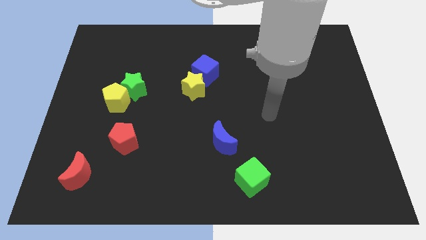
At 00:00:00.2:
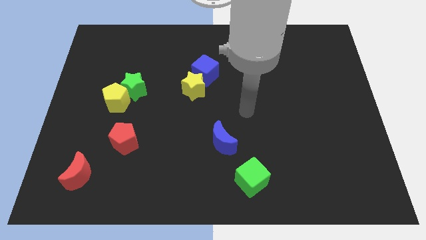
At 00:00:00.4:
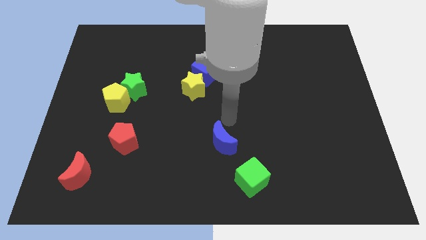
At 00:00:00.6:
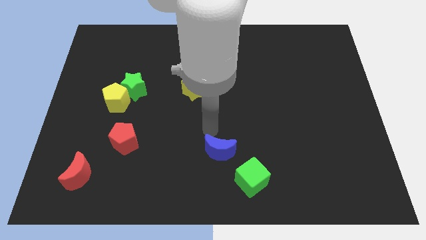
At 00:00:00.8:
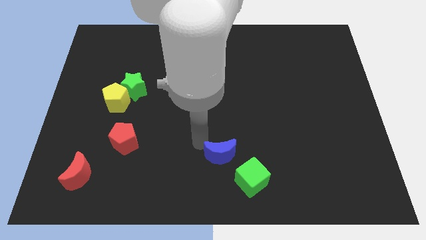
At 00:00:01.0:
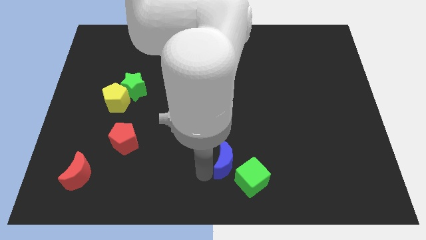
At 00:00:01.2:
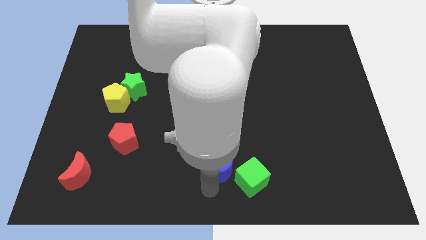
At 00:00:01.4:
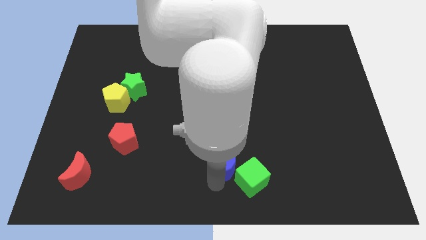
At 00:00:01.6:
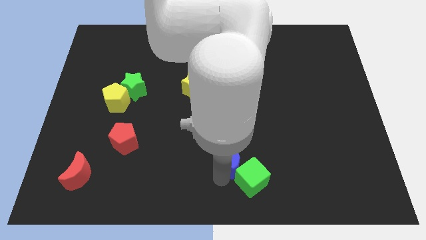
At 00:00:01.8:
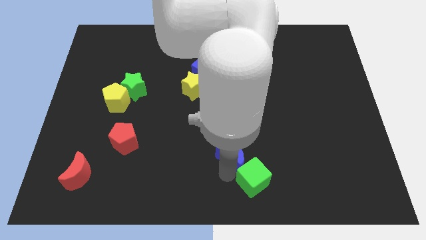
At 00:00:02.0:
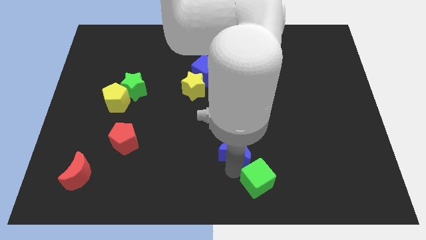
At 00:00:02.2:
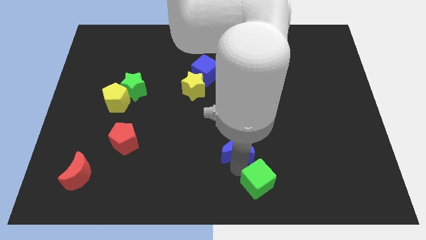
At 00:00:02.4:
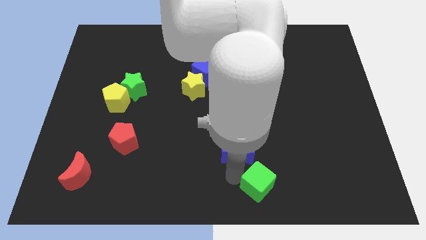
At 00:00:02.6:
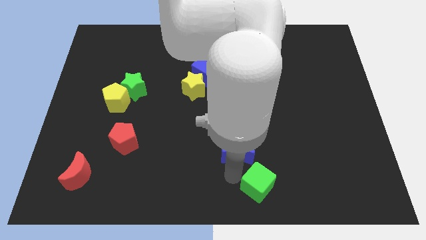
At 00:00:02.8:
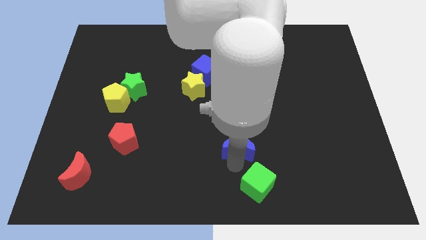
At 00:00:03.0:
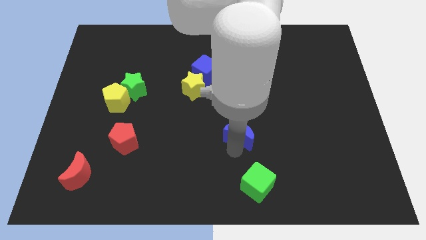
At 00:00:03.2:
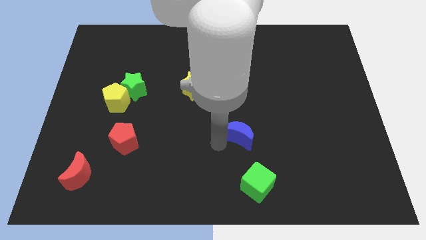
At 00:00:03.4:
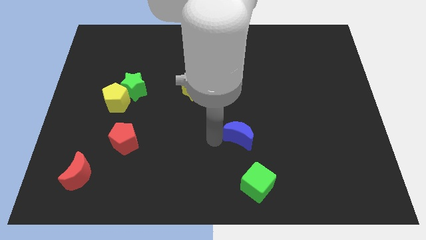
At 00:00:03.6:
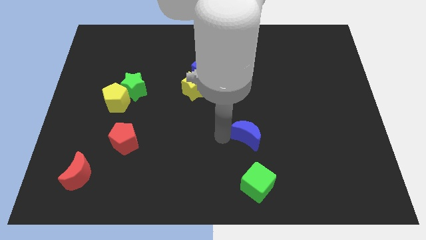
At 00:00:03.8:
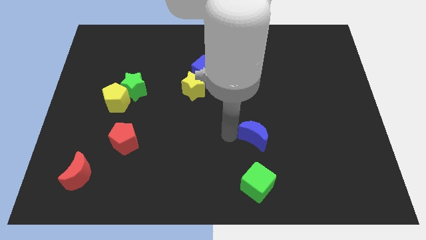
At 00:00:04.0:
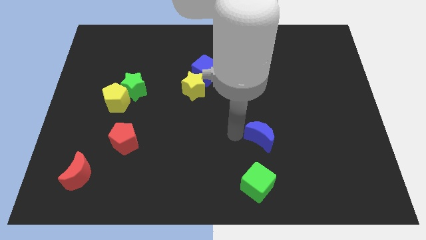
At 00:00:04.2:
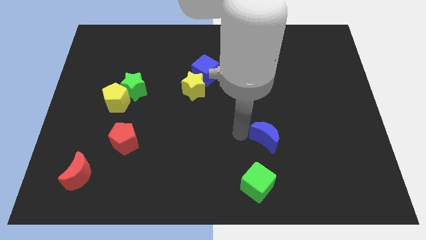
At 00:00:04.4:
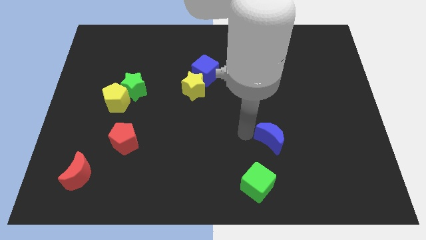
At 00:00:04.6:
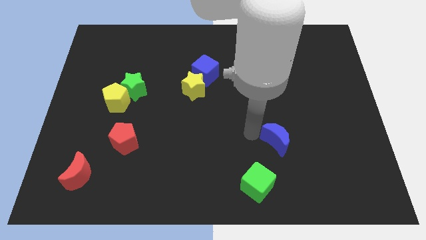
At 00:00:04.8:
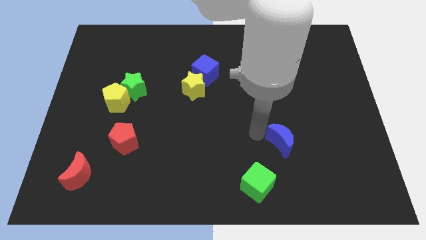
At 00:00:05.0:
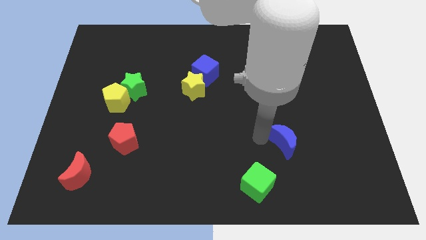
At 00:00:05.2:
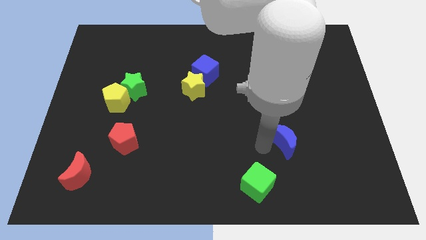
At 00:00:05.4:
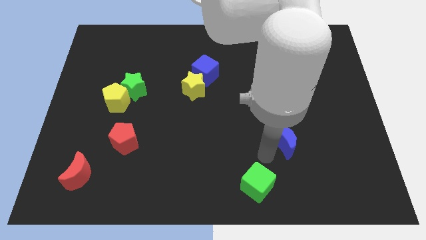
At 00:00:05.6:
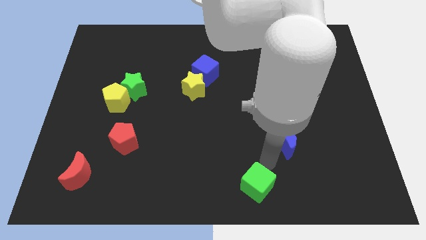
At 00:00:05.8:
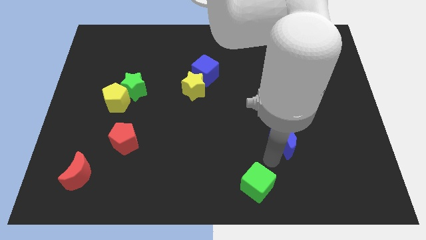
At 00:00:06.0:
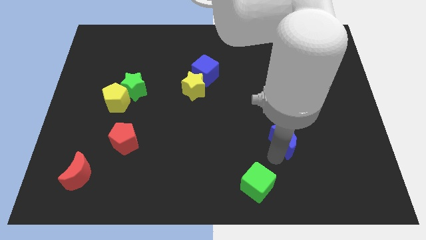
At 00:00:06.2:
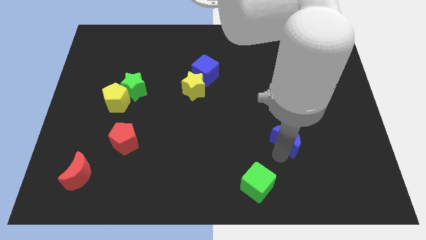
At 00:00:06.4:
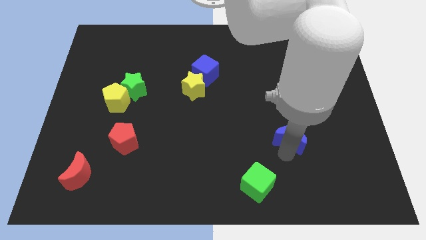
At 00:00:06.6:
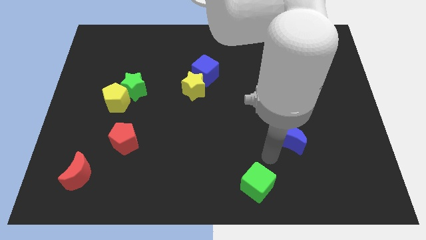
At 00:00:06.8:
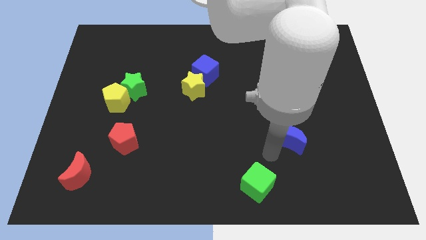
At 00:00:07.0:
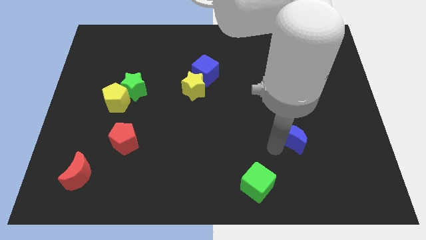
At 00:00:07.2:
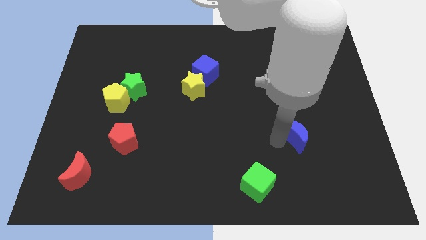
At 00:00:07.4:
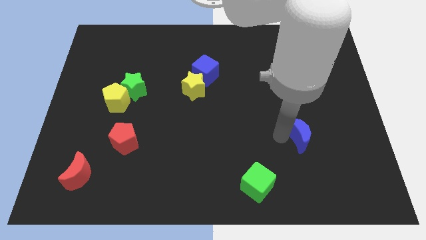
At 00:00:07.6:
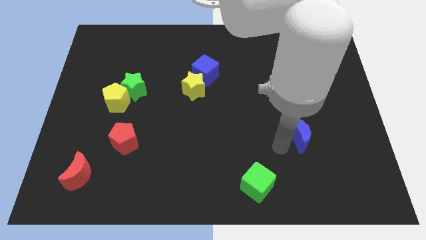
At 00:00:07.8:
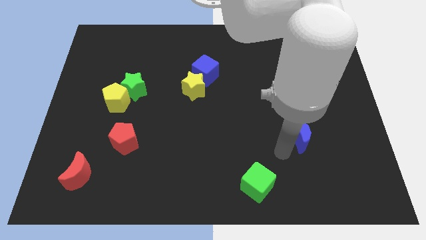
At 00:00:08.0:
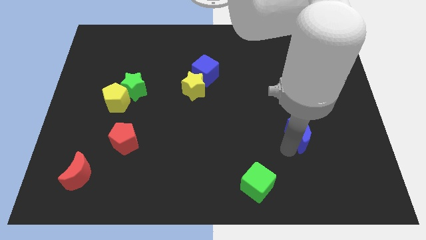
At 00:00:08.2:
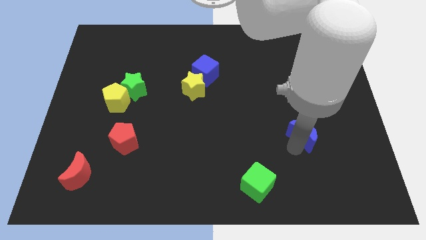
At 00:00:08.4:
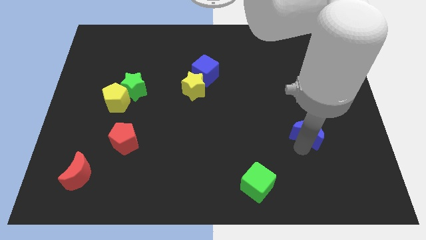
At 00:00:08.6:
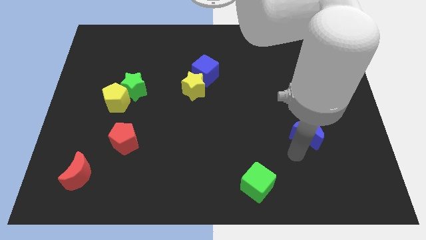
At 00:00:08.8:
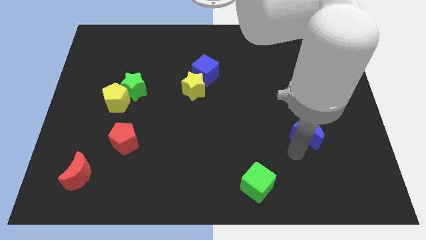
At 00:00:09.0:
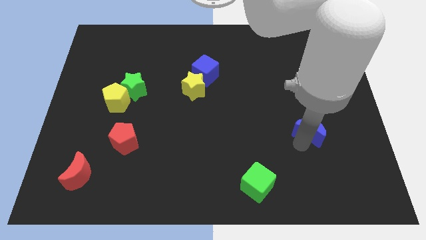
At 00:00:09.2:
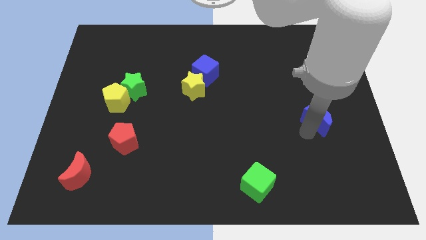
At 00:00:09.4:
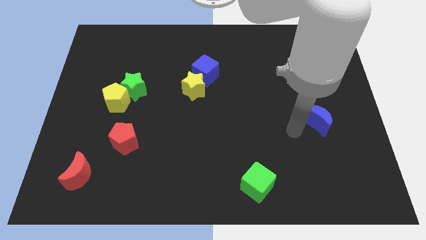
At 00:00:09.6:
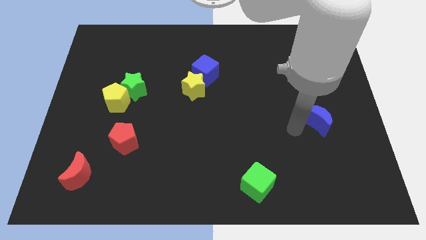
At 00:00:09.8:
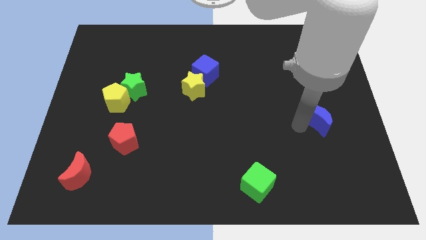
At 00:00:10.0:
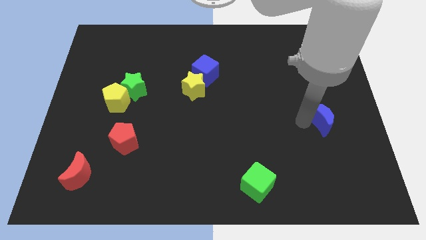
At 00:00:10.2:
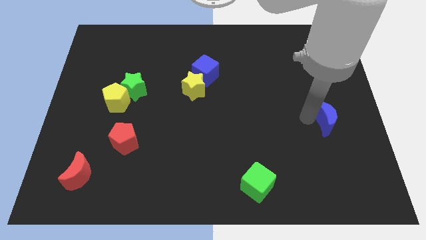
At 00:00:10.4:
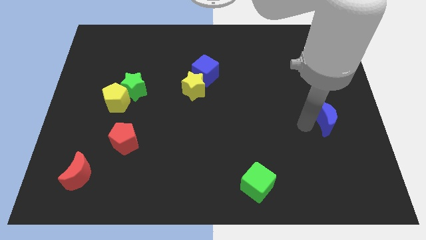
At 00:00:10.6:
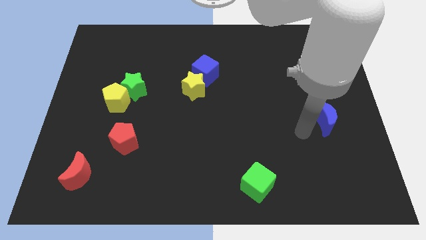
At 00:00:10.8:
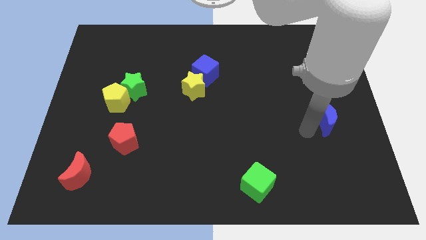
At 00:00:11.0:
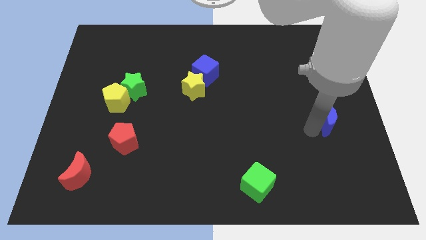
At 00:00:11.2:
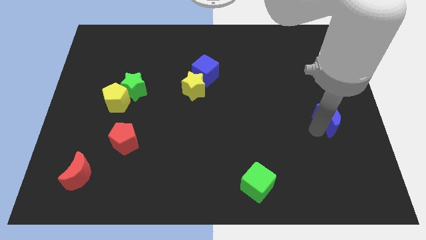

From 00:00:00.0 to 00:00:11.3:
put the blue moon to the right side

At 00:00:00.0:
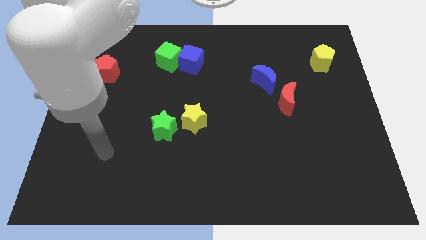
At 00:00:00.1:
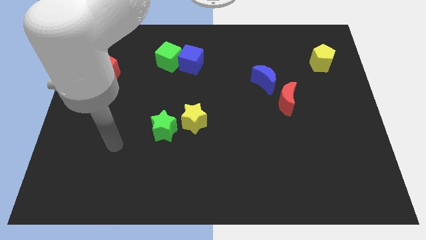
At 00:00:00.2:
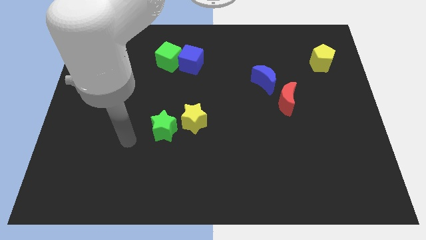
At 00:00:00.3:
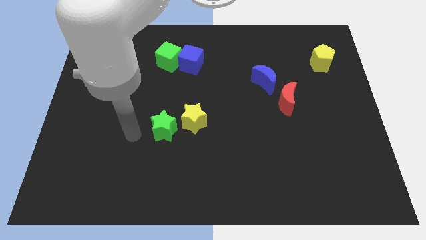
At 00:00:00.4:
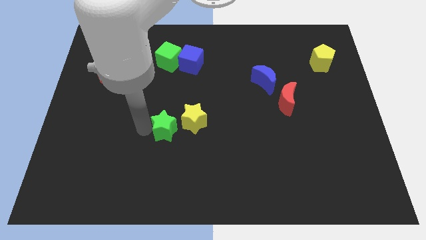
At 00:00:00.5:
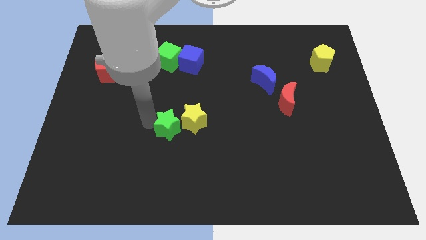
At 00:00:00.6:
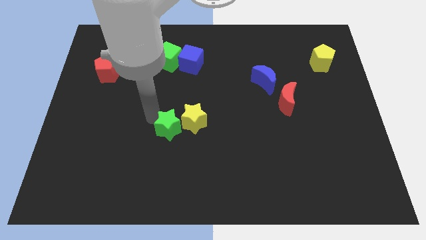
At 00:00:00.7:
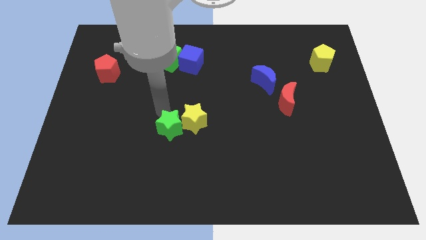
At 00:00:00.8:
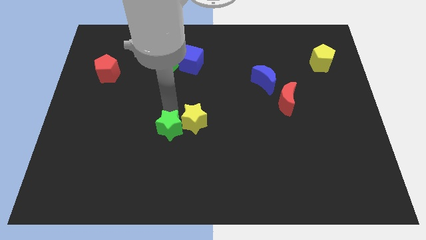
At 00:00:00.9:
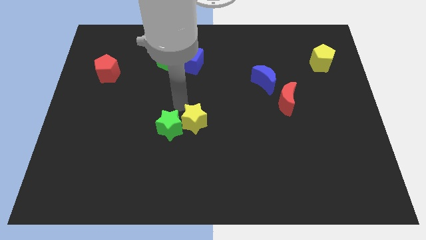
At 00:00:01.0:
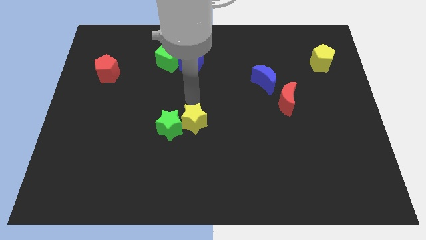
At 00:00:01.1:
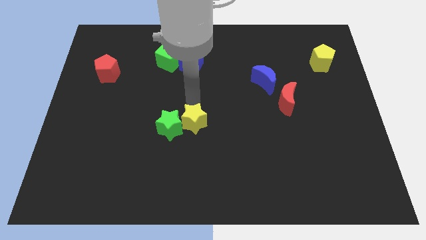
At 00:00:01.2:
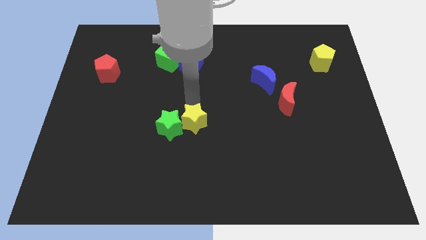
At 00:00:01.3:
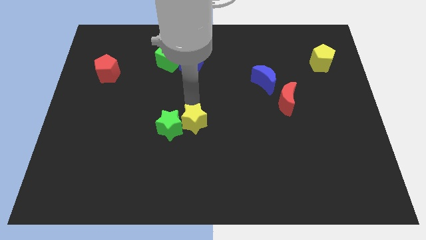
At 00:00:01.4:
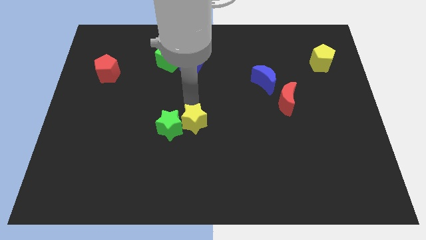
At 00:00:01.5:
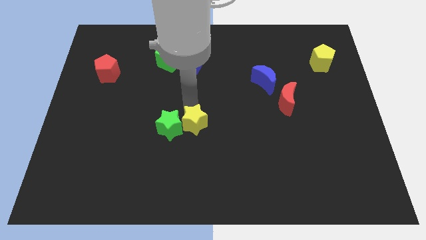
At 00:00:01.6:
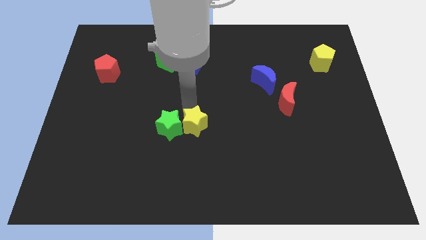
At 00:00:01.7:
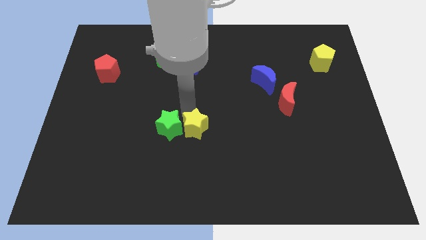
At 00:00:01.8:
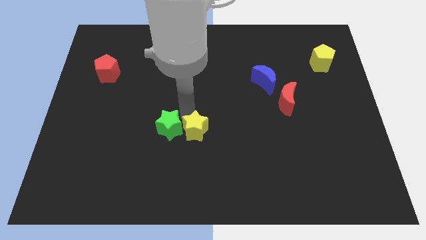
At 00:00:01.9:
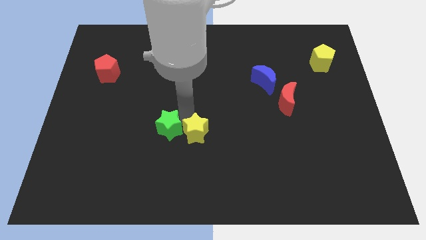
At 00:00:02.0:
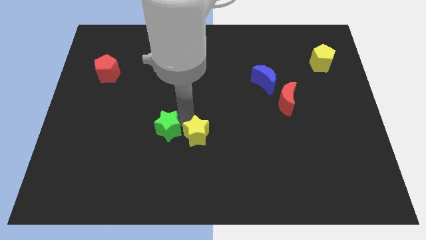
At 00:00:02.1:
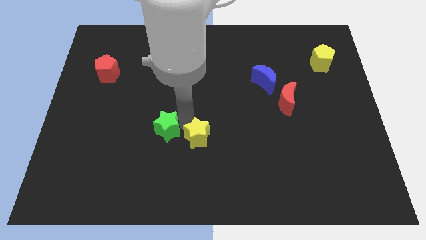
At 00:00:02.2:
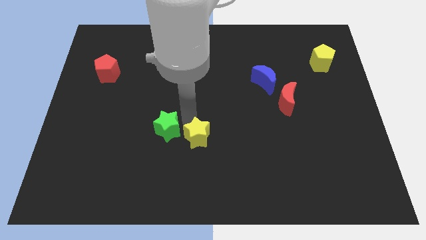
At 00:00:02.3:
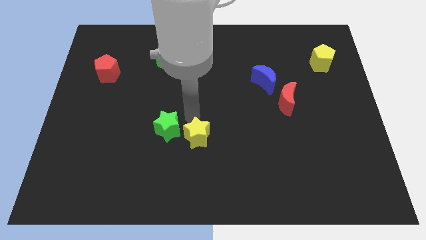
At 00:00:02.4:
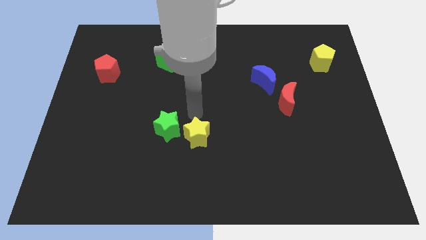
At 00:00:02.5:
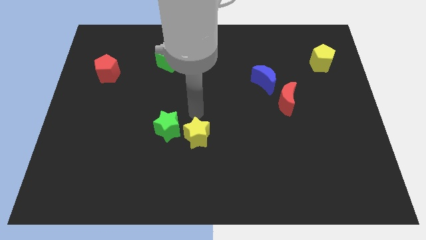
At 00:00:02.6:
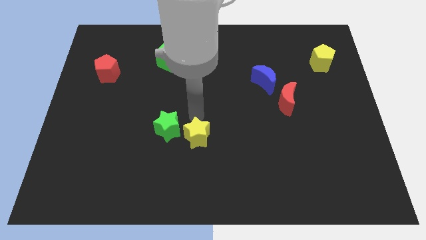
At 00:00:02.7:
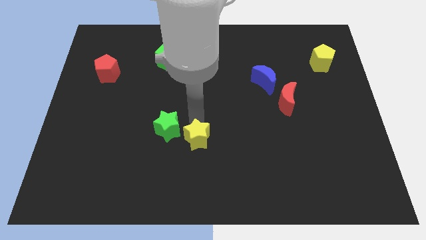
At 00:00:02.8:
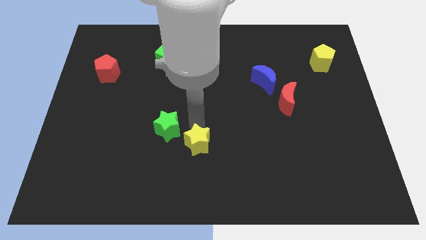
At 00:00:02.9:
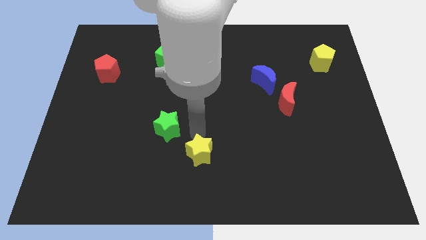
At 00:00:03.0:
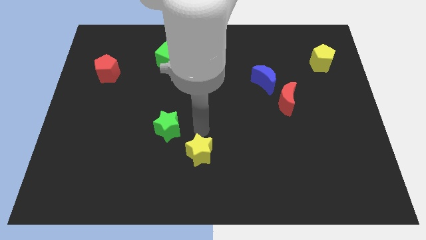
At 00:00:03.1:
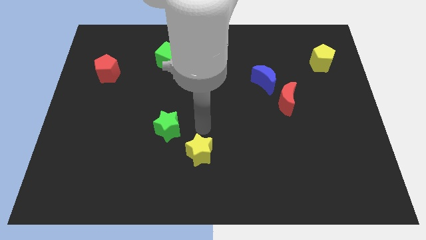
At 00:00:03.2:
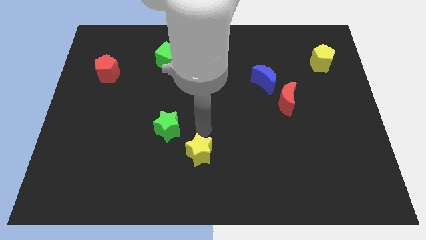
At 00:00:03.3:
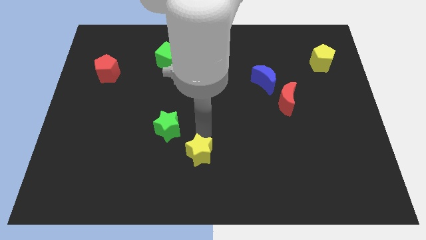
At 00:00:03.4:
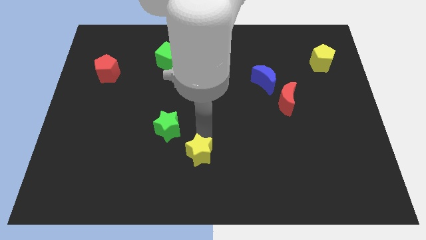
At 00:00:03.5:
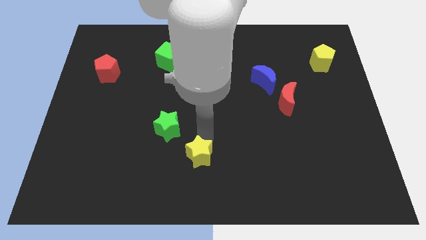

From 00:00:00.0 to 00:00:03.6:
put the yellow star to the bottom side
